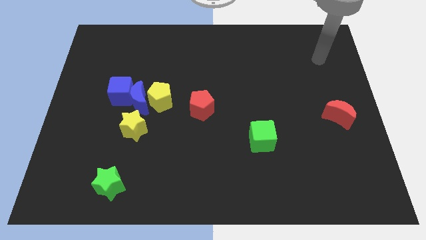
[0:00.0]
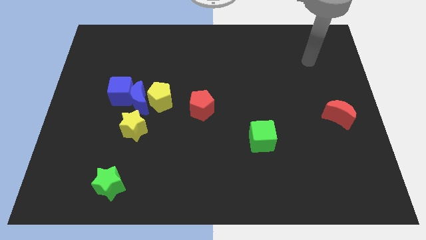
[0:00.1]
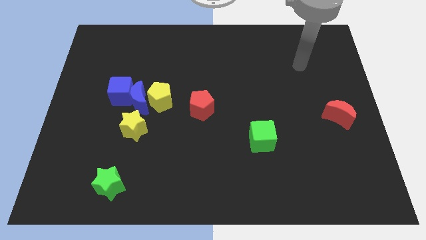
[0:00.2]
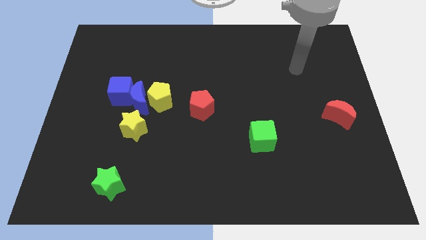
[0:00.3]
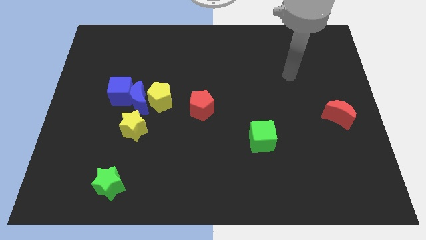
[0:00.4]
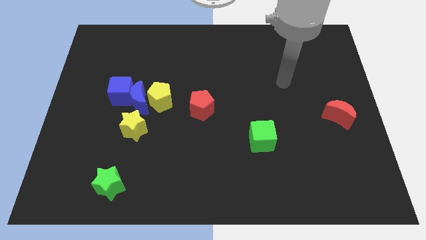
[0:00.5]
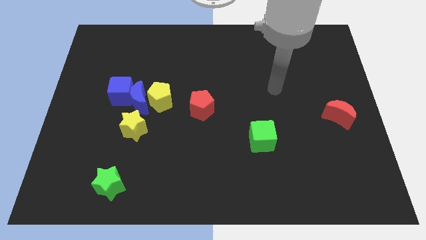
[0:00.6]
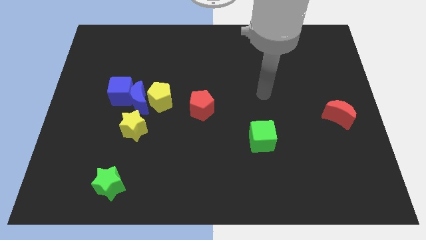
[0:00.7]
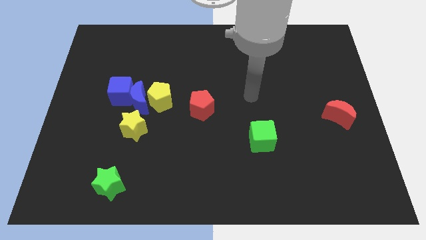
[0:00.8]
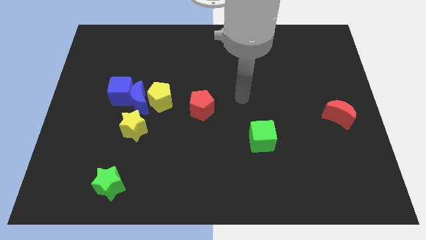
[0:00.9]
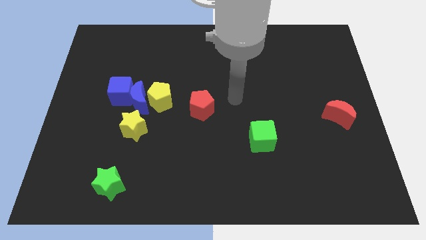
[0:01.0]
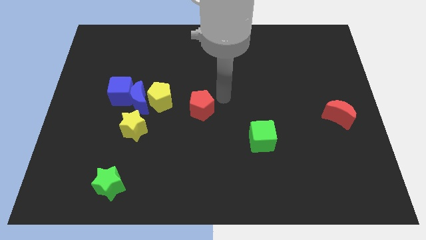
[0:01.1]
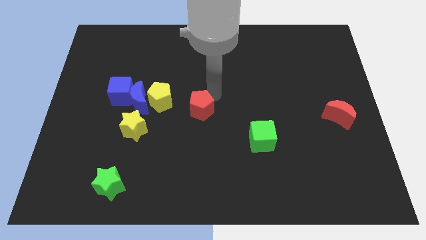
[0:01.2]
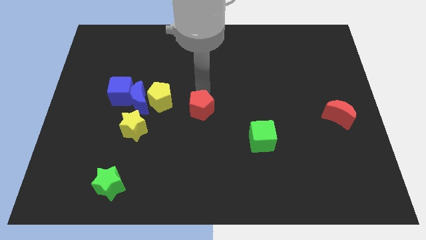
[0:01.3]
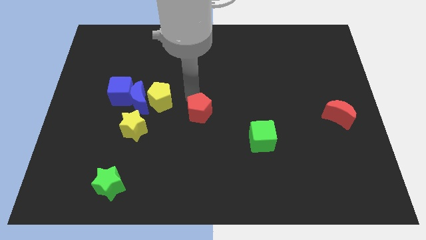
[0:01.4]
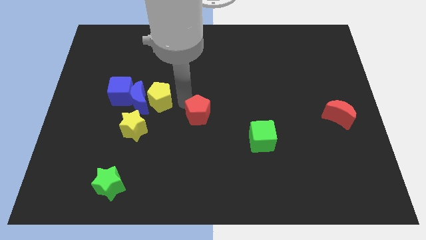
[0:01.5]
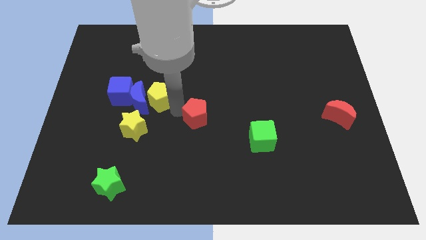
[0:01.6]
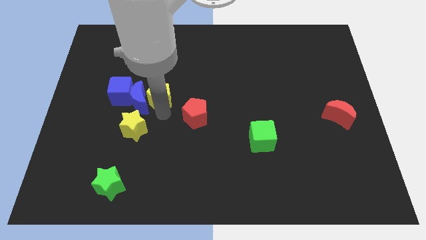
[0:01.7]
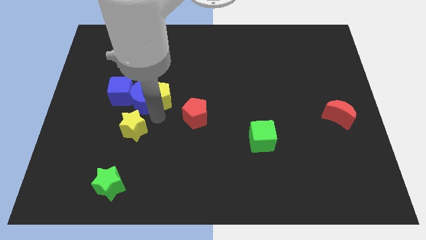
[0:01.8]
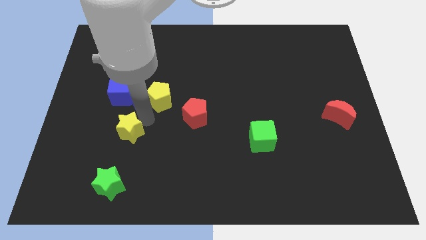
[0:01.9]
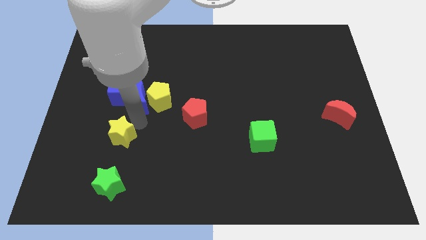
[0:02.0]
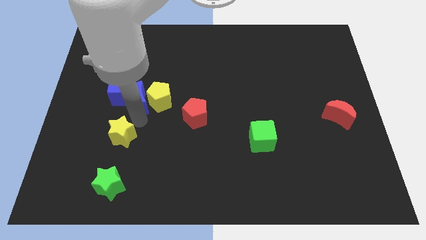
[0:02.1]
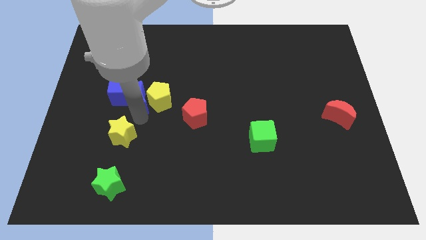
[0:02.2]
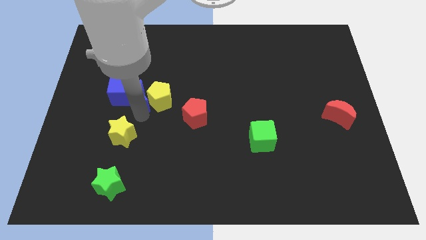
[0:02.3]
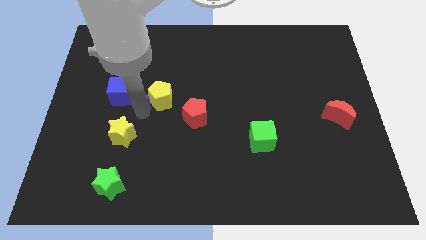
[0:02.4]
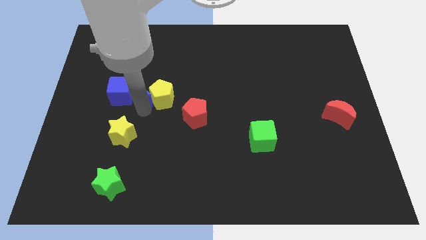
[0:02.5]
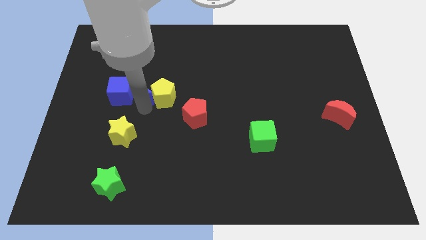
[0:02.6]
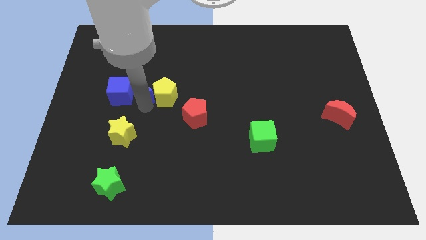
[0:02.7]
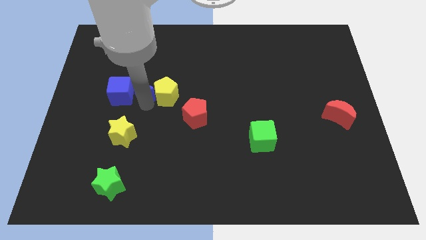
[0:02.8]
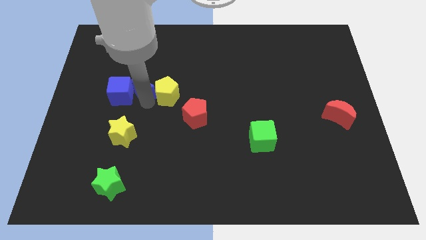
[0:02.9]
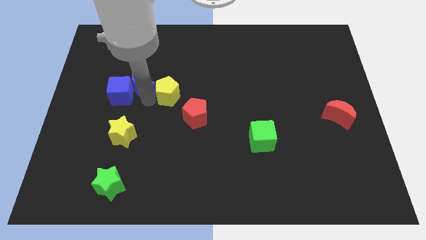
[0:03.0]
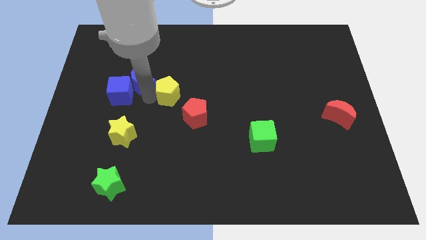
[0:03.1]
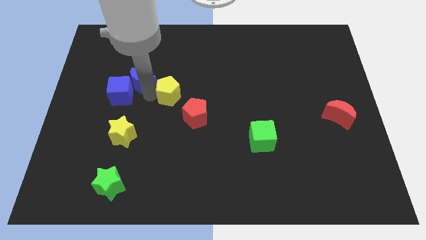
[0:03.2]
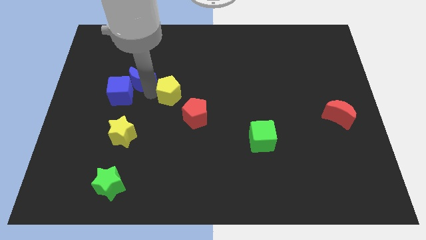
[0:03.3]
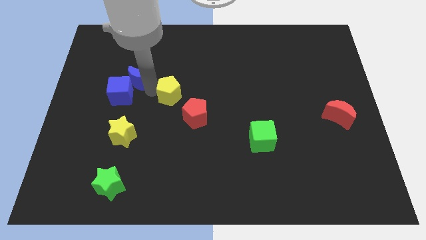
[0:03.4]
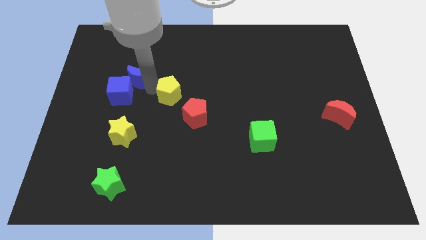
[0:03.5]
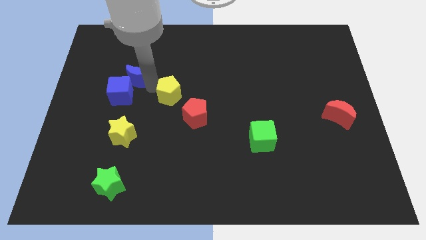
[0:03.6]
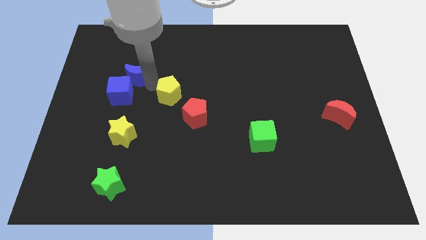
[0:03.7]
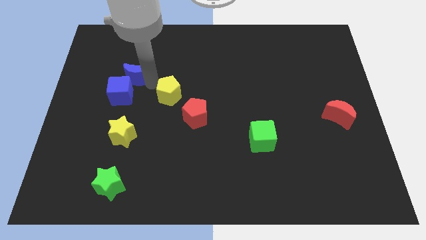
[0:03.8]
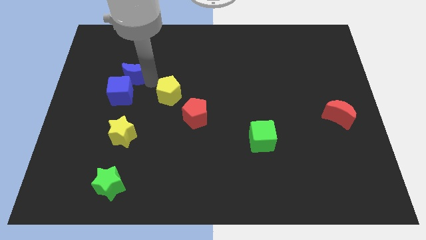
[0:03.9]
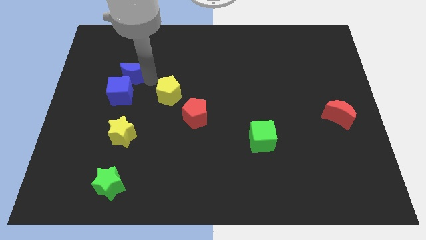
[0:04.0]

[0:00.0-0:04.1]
pull the blue moon apart from the group

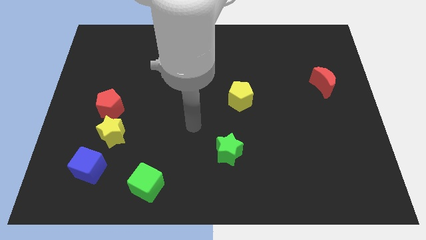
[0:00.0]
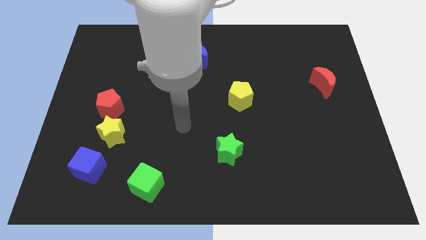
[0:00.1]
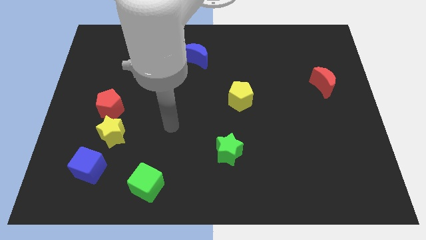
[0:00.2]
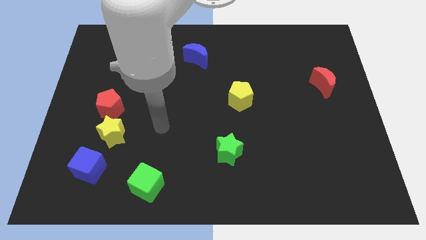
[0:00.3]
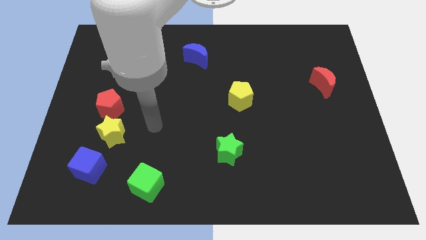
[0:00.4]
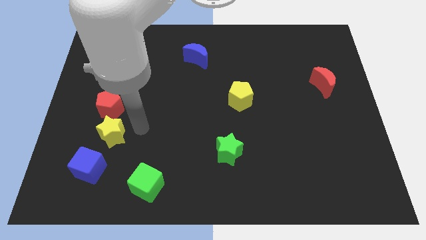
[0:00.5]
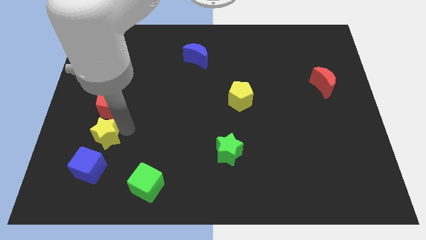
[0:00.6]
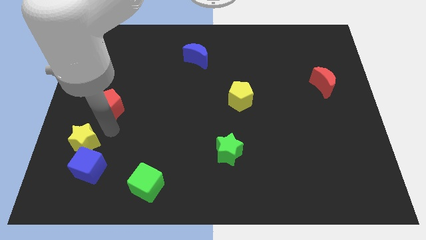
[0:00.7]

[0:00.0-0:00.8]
move the red pentagon away from the yellow star

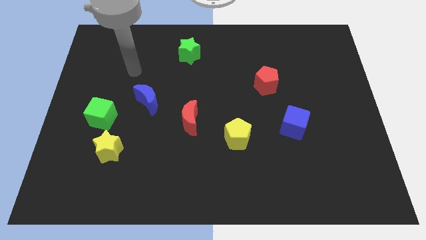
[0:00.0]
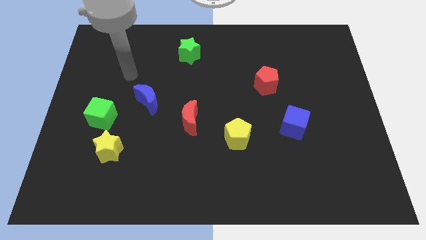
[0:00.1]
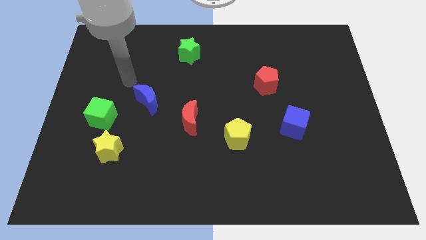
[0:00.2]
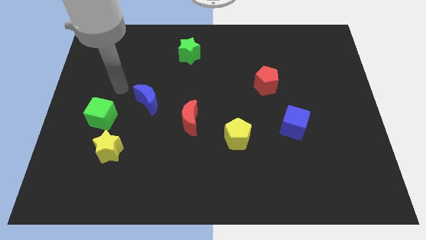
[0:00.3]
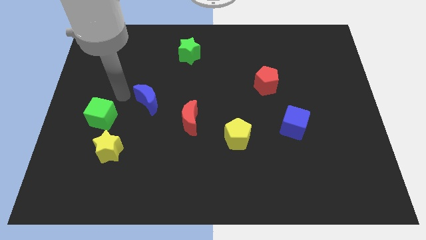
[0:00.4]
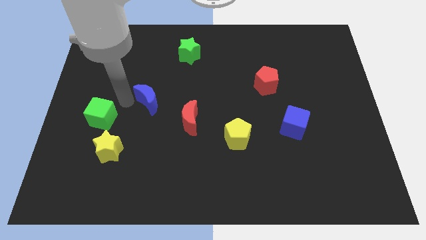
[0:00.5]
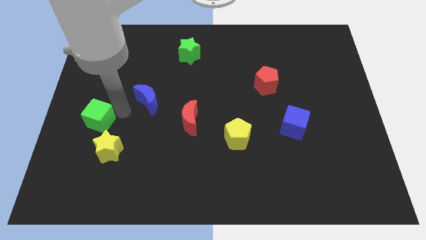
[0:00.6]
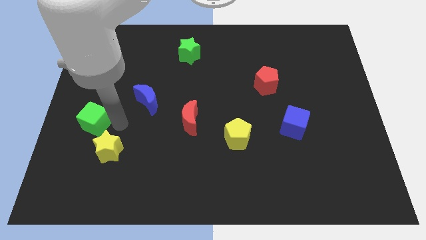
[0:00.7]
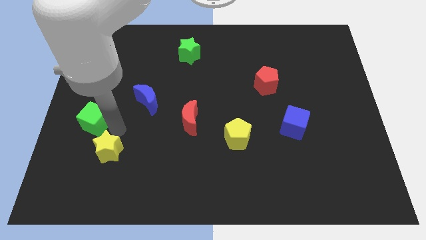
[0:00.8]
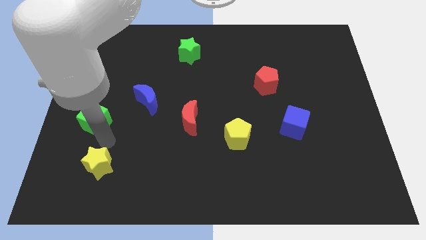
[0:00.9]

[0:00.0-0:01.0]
pull the green cube apart from the yellow star

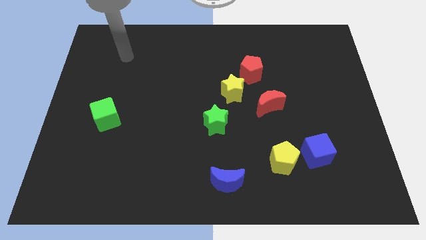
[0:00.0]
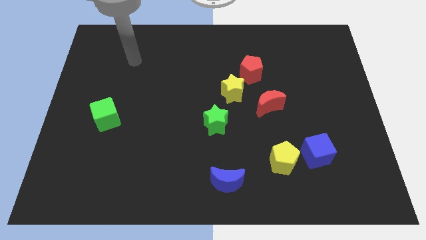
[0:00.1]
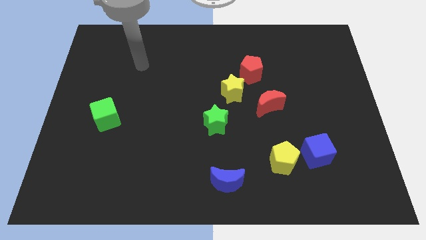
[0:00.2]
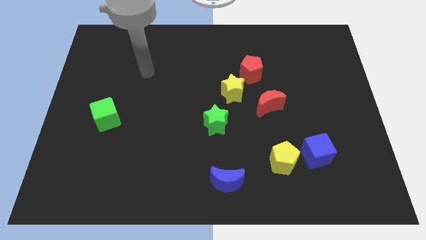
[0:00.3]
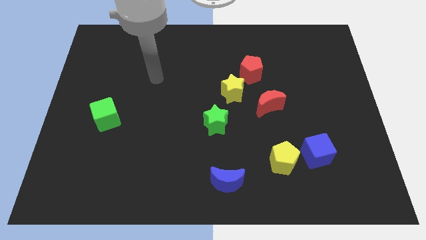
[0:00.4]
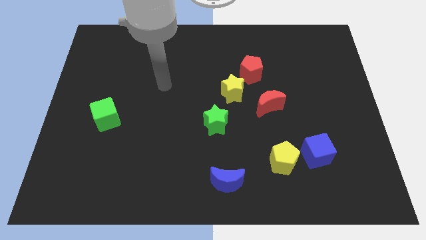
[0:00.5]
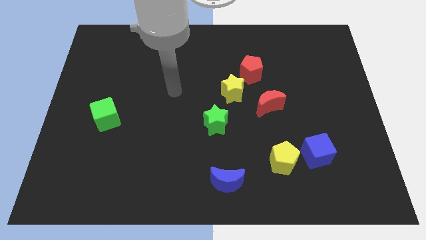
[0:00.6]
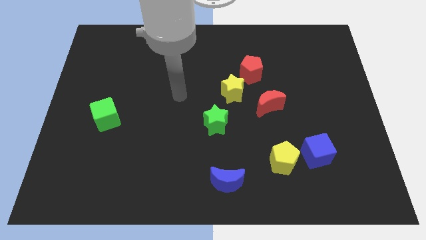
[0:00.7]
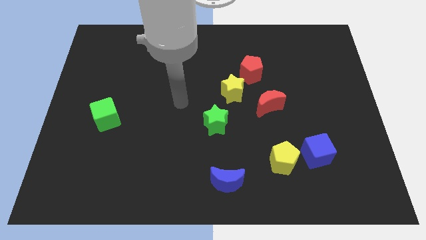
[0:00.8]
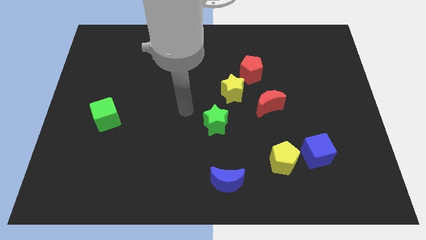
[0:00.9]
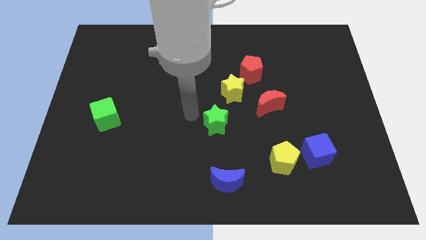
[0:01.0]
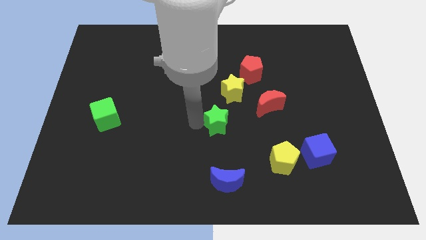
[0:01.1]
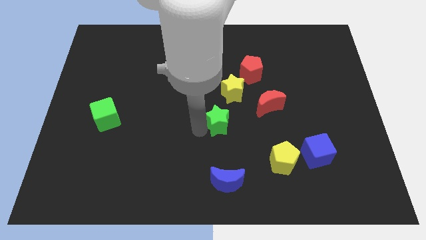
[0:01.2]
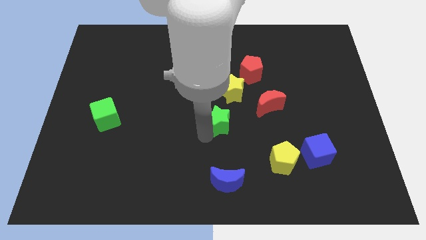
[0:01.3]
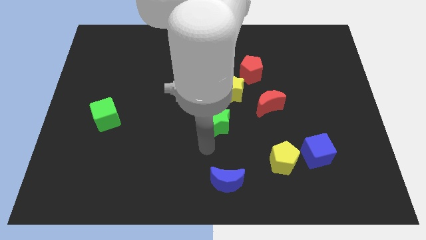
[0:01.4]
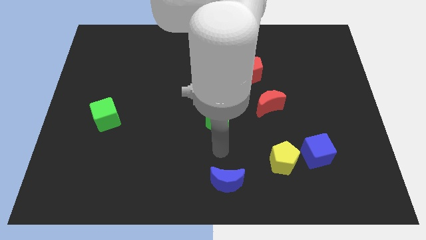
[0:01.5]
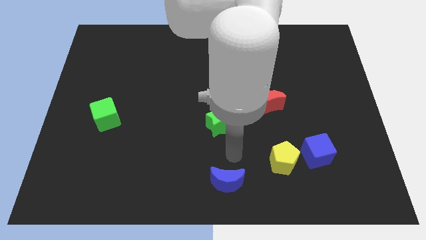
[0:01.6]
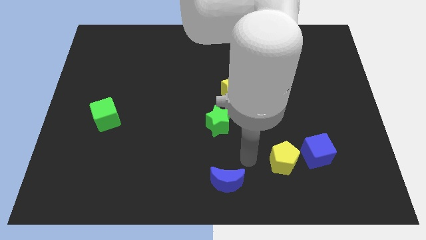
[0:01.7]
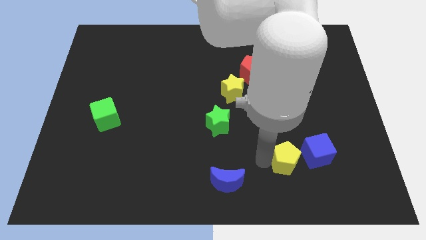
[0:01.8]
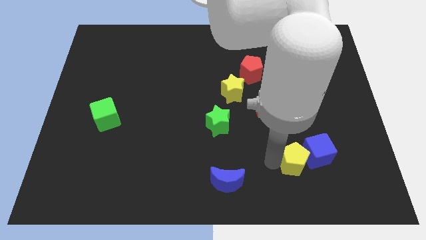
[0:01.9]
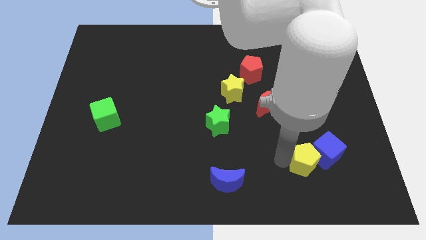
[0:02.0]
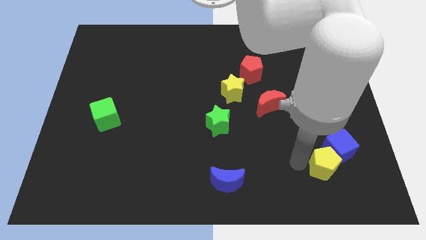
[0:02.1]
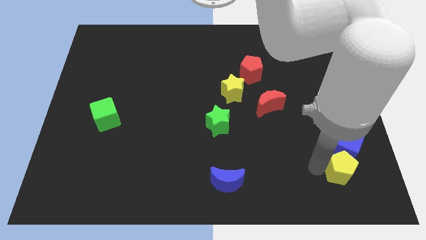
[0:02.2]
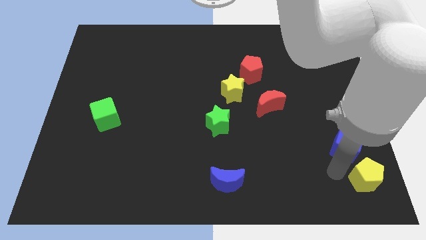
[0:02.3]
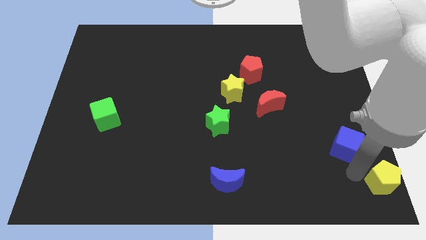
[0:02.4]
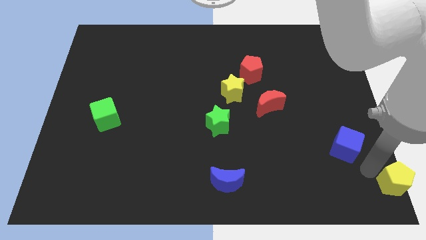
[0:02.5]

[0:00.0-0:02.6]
pull the blue cube apart from the yellow pentagon

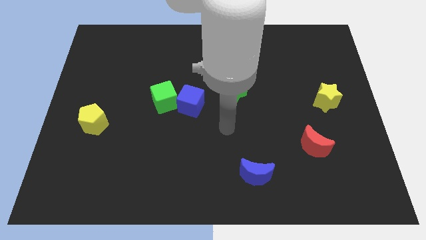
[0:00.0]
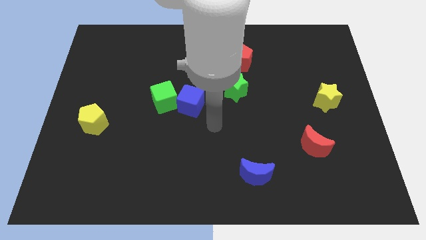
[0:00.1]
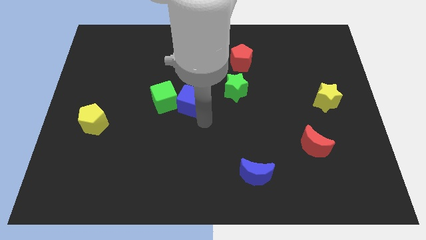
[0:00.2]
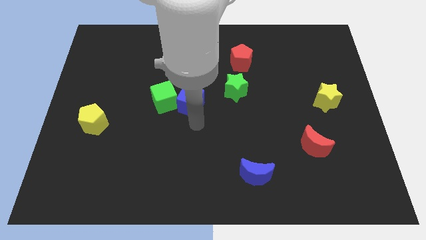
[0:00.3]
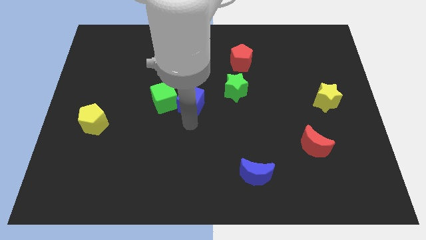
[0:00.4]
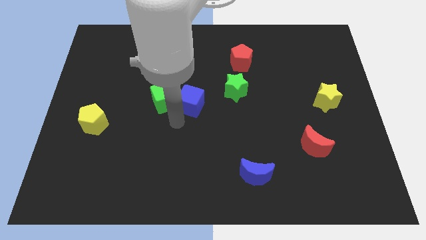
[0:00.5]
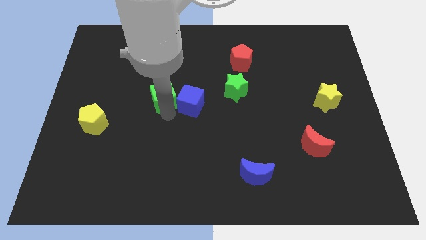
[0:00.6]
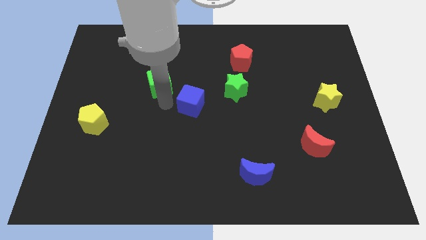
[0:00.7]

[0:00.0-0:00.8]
pull the blue cube apart from the green cube

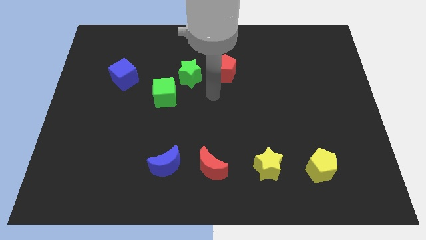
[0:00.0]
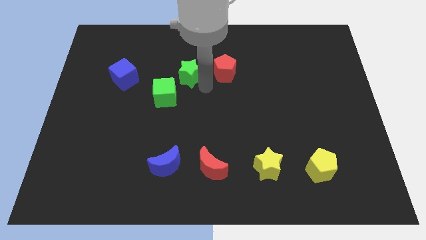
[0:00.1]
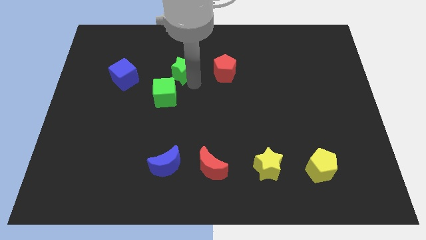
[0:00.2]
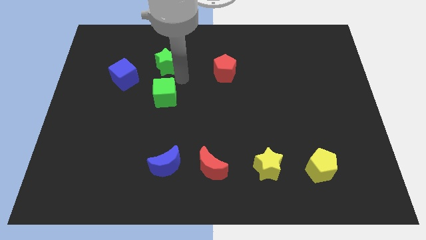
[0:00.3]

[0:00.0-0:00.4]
separate the green cube from the green star
